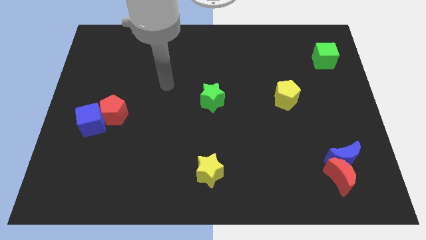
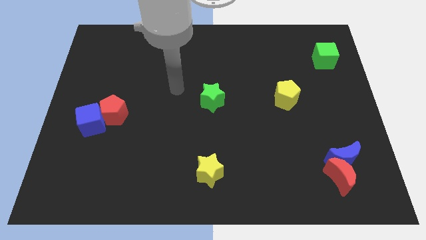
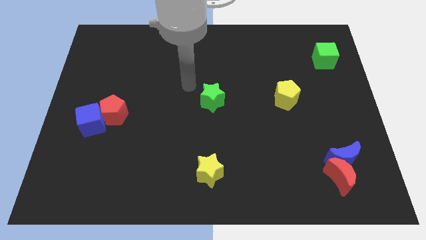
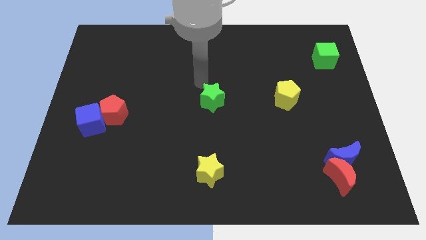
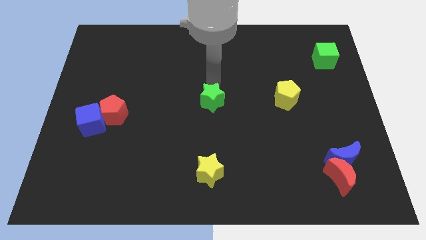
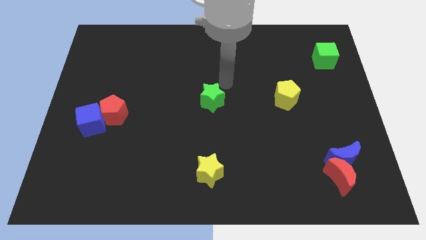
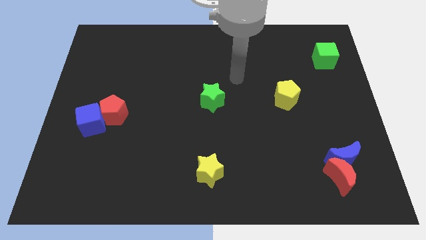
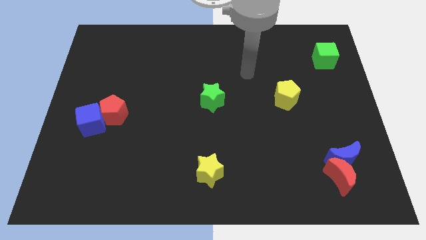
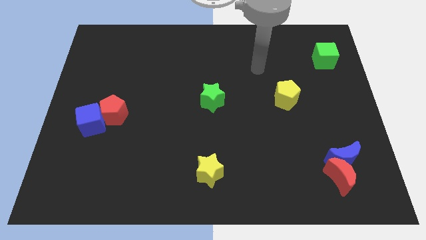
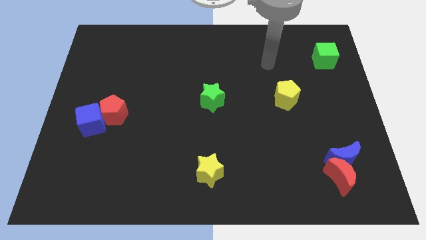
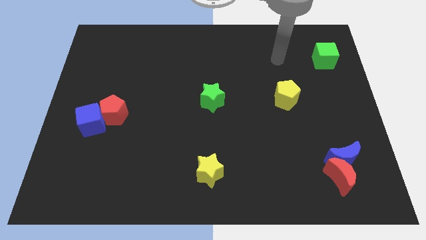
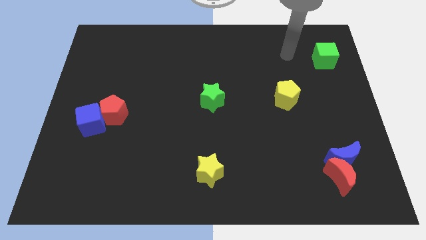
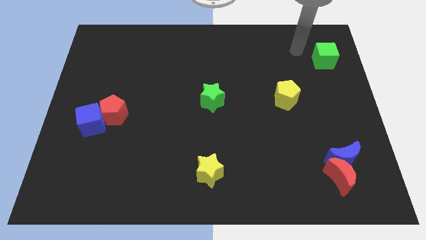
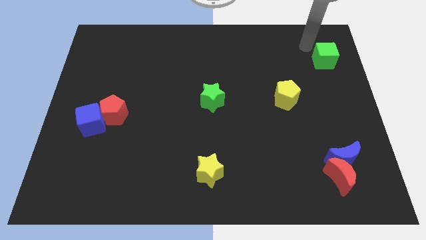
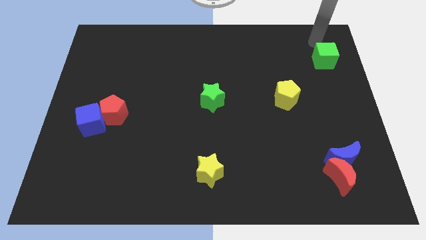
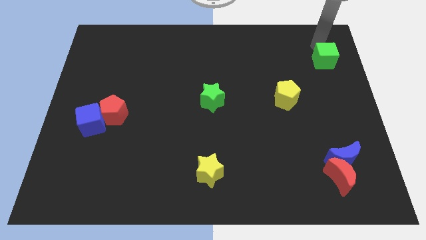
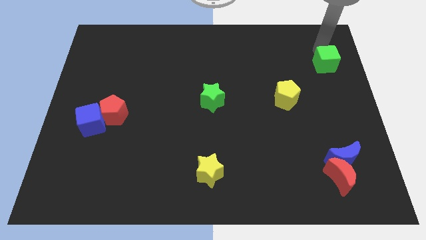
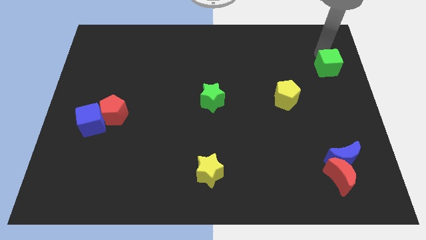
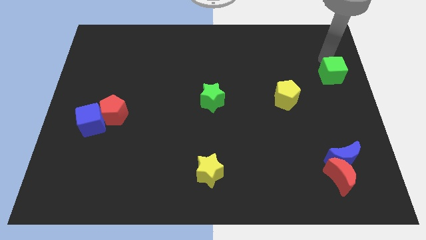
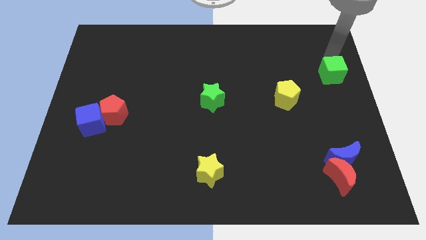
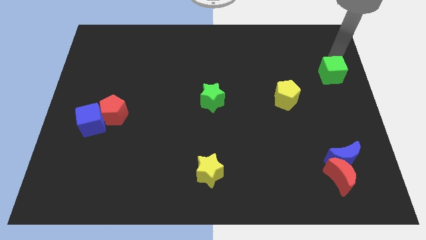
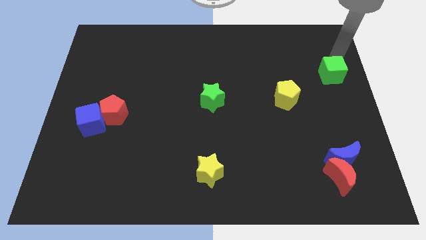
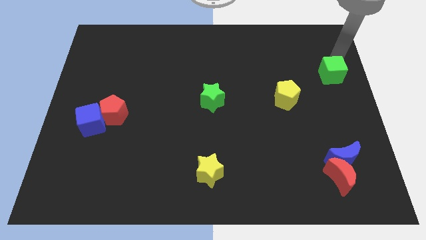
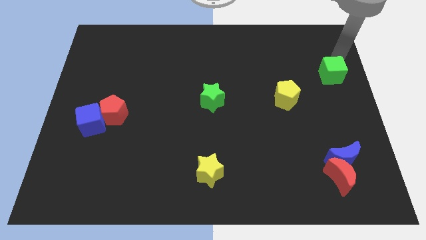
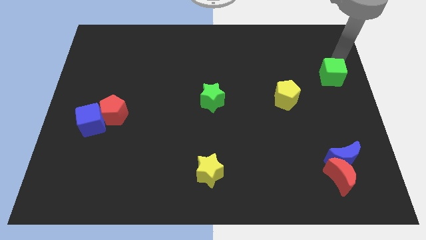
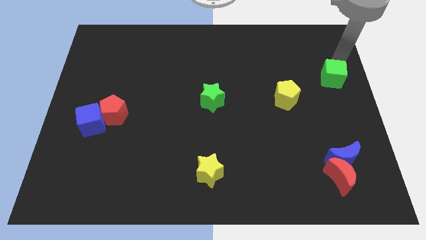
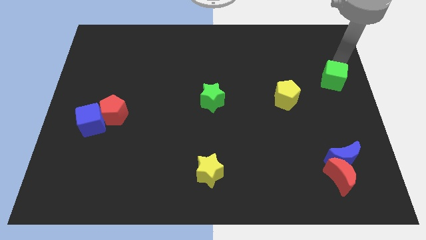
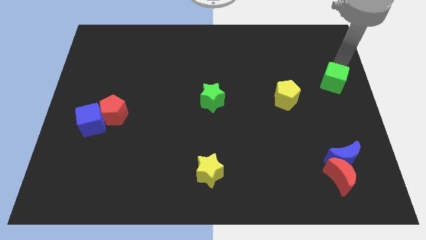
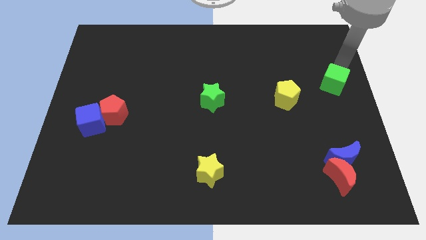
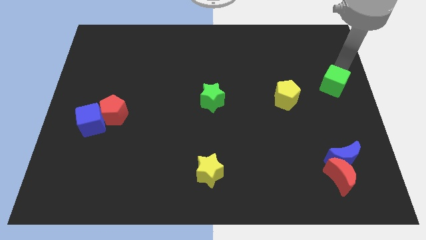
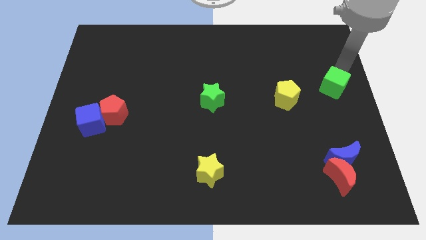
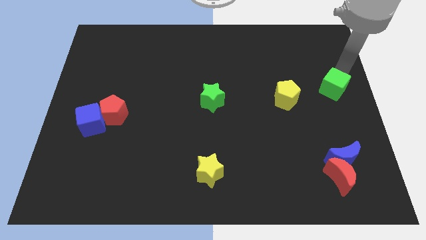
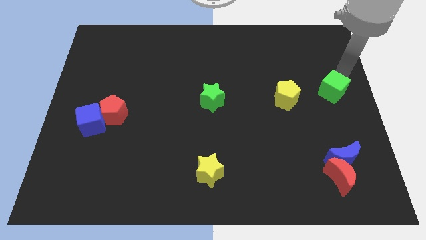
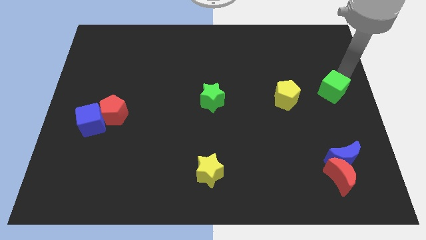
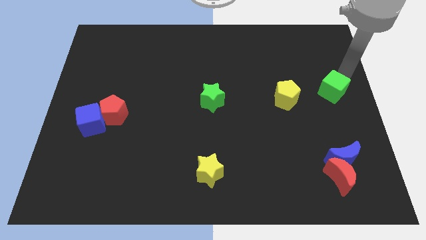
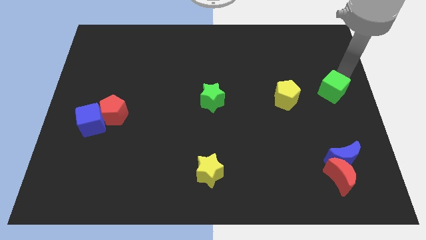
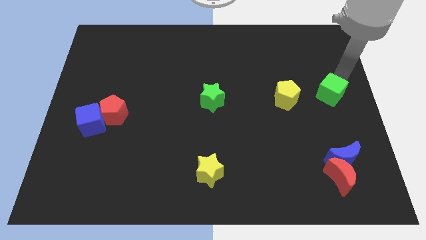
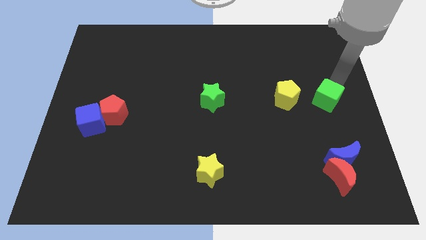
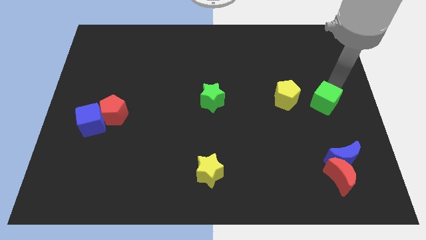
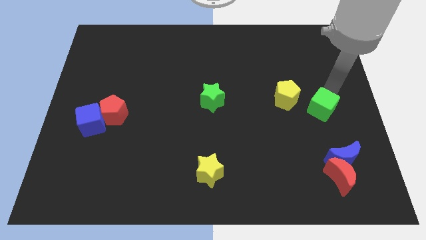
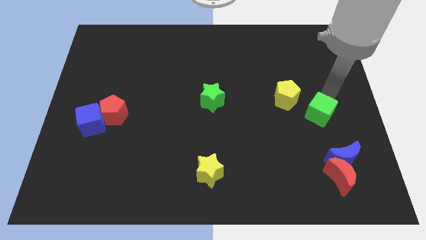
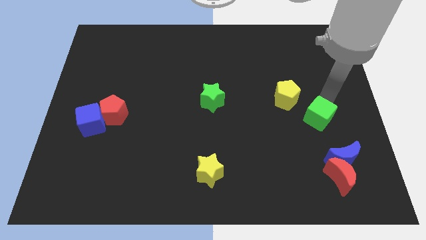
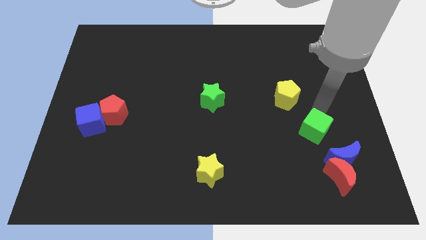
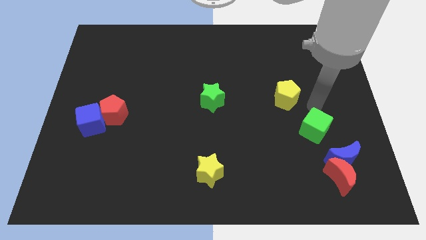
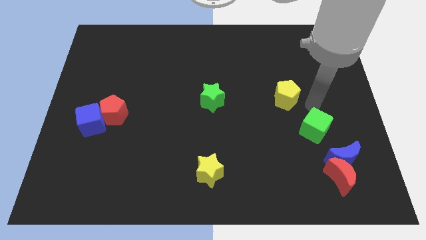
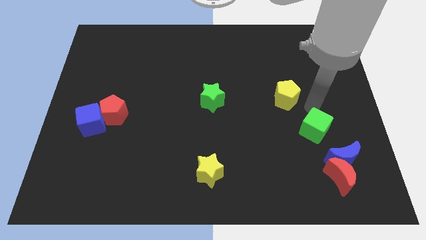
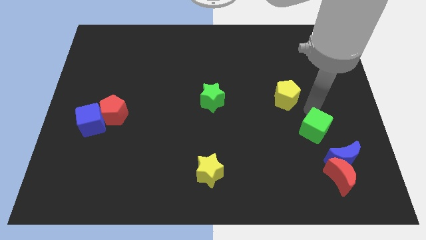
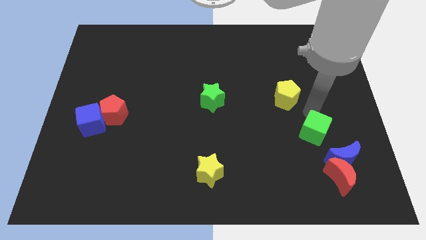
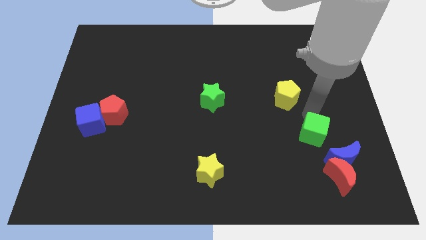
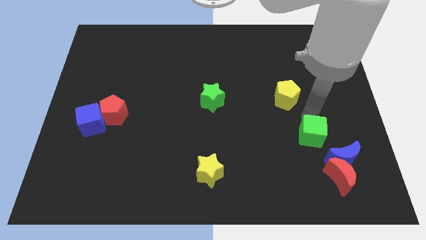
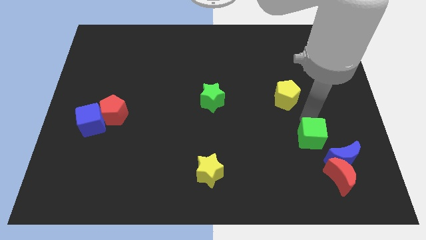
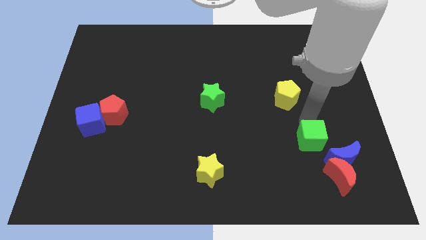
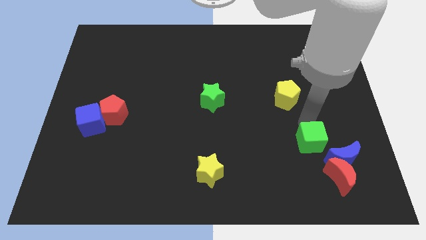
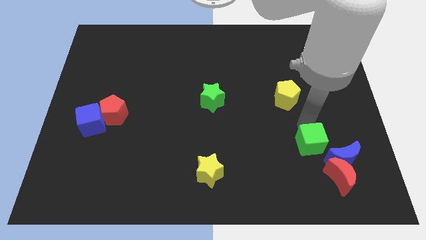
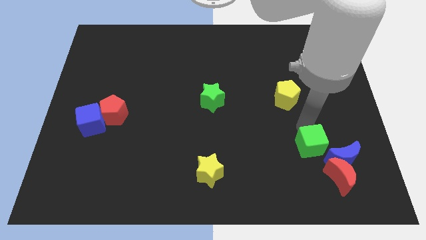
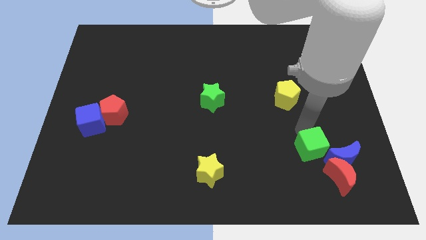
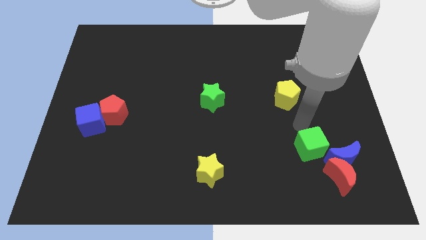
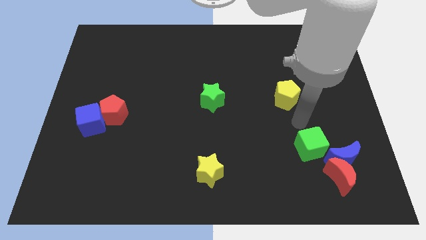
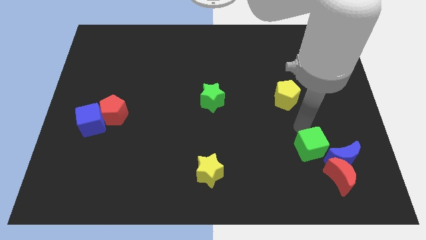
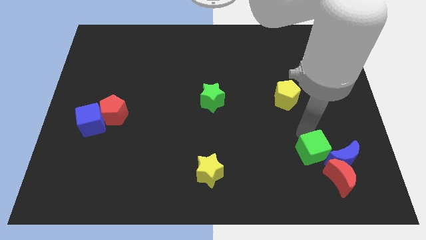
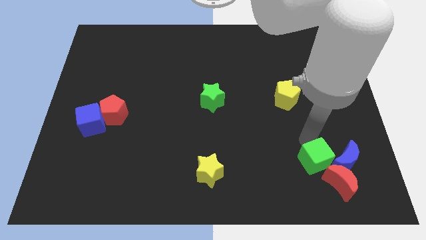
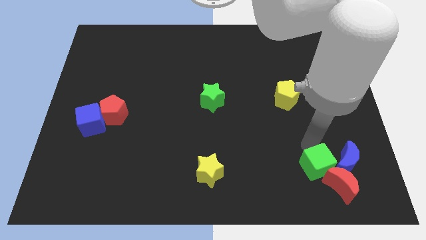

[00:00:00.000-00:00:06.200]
put the green cube to the red moon

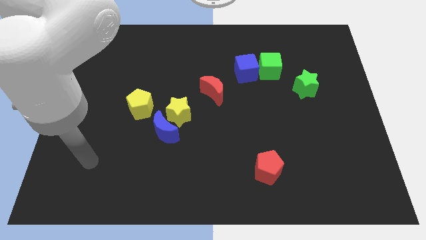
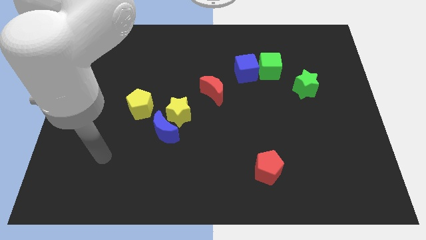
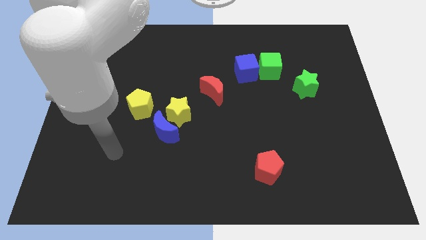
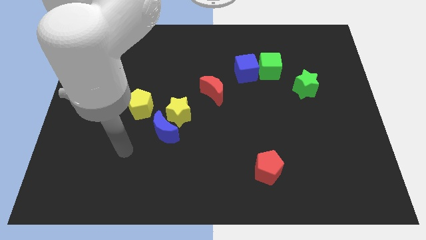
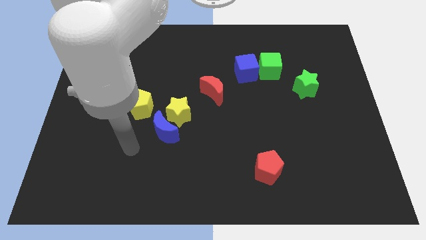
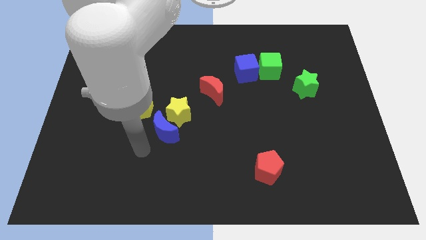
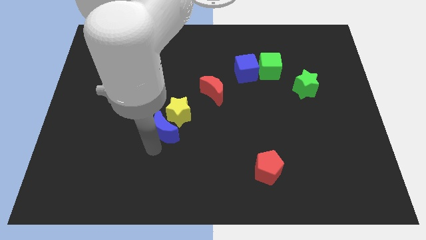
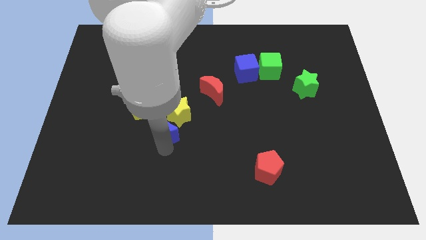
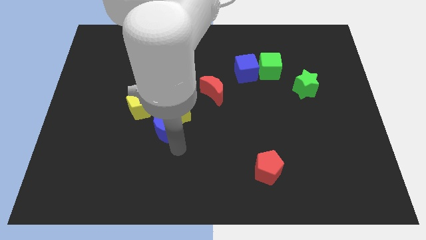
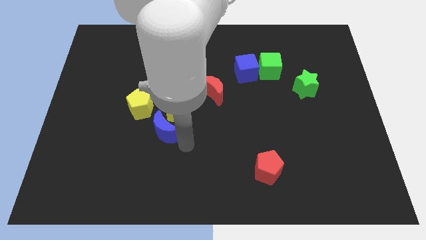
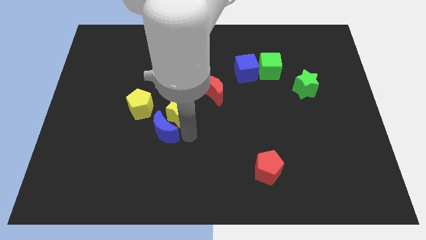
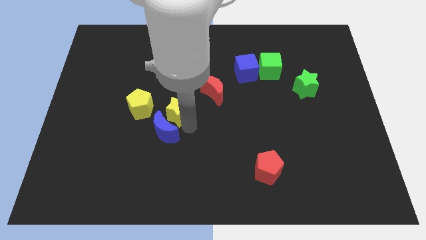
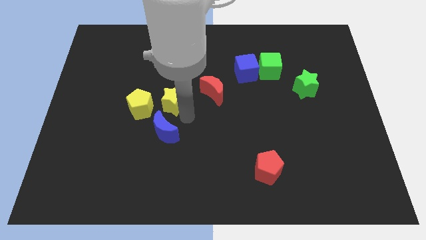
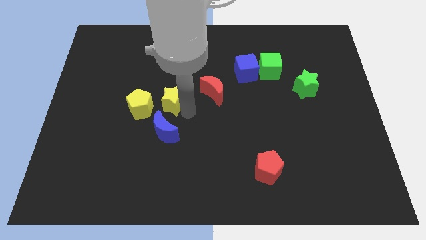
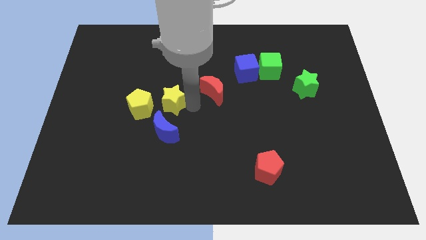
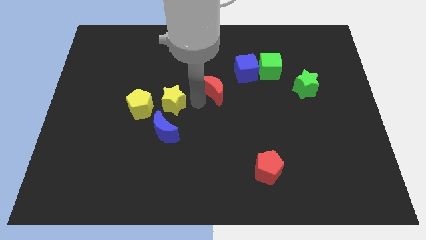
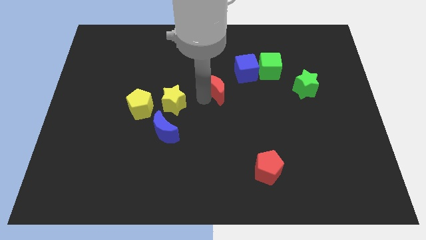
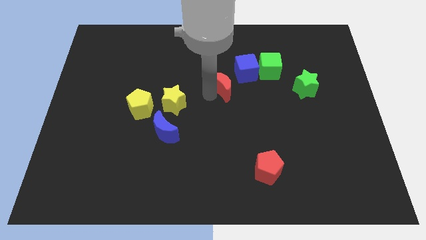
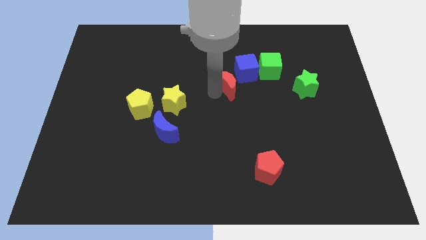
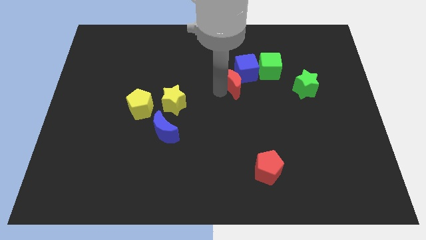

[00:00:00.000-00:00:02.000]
push the red moon towards the blue cube
